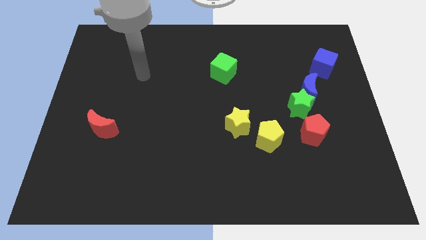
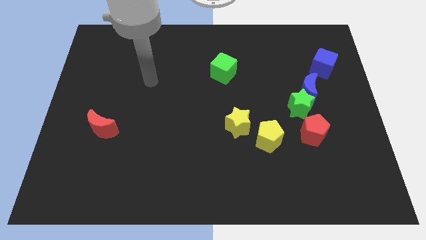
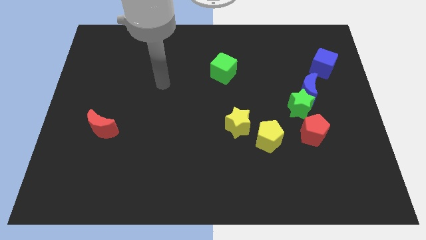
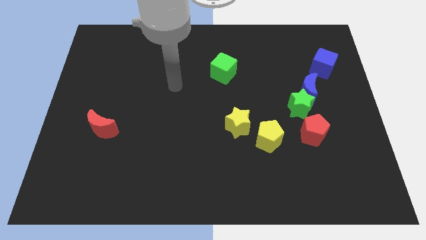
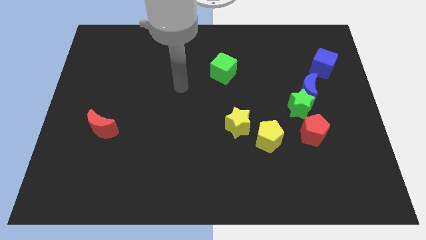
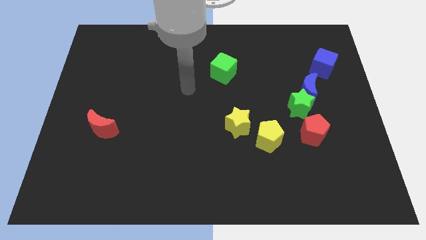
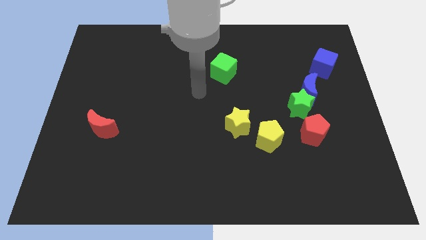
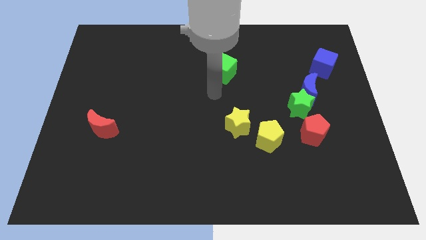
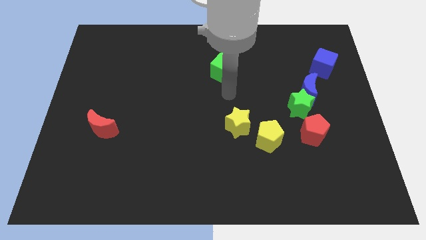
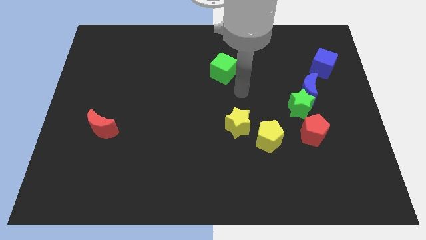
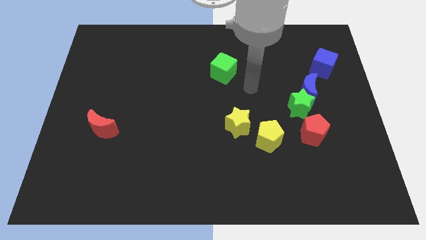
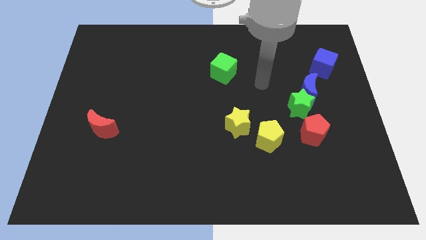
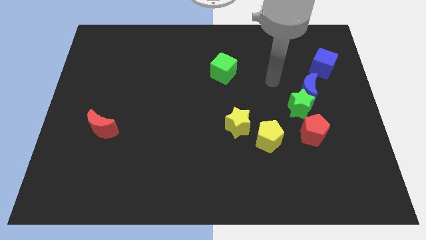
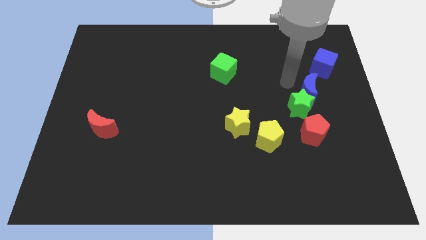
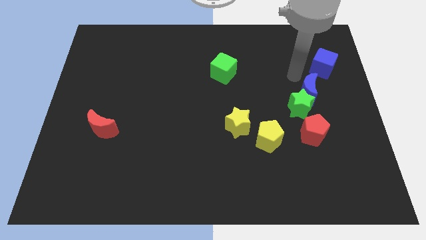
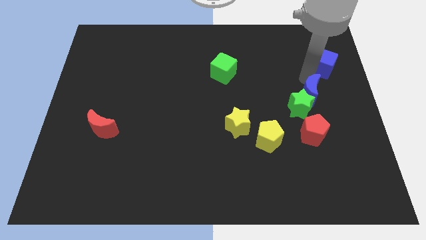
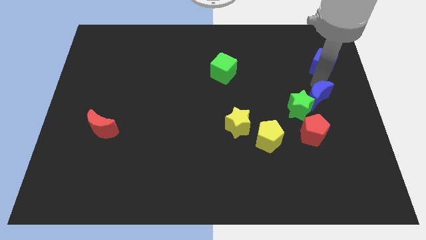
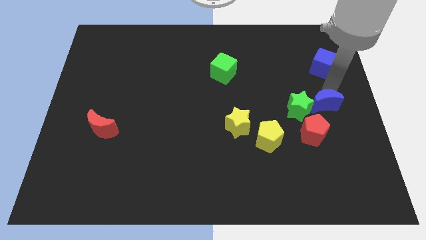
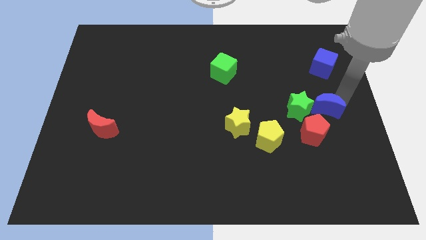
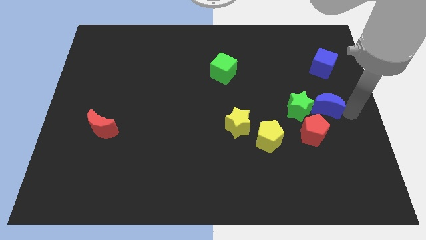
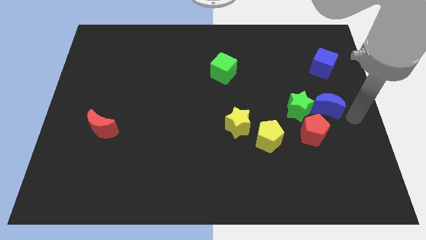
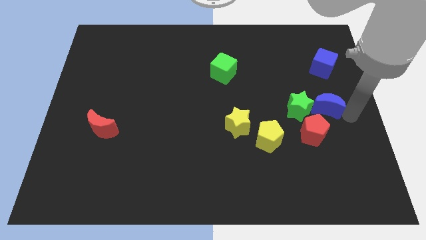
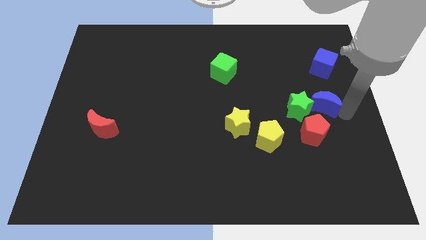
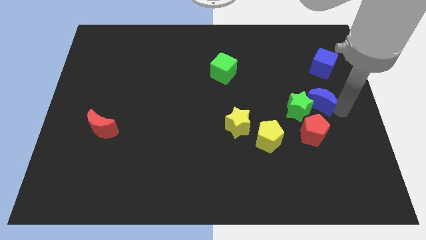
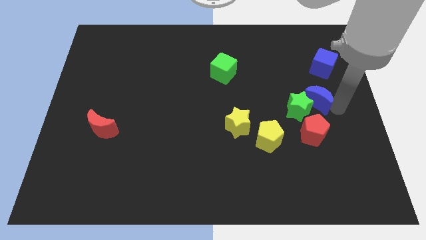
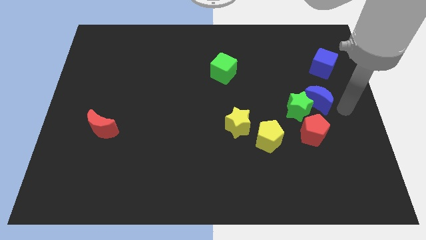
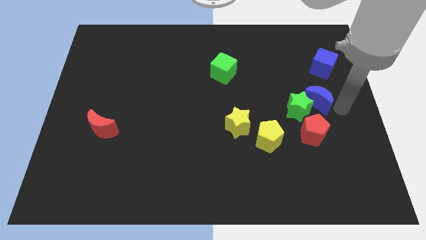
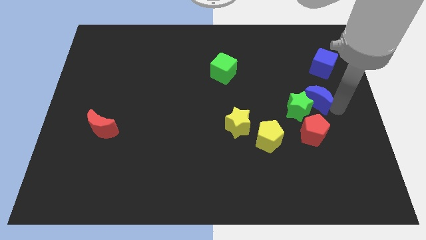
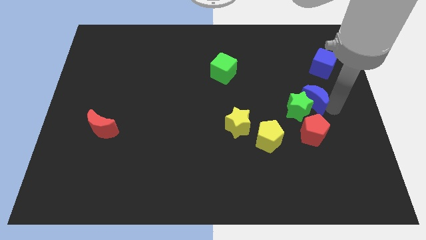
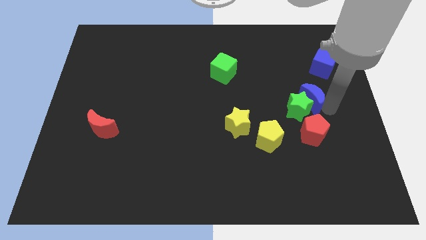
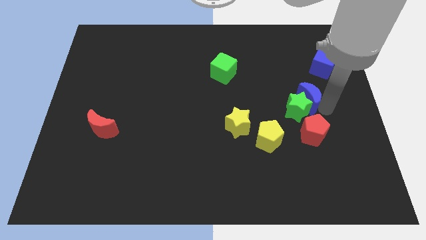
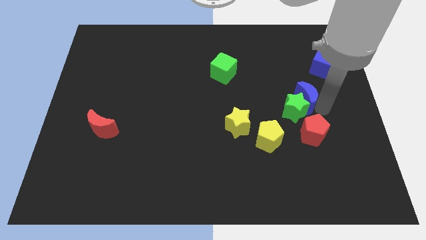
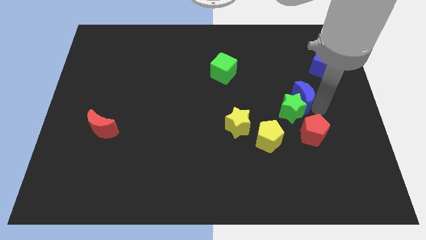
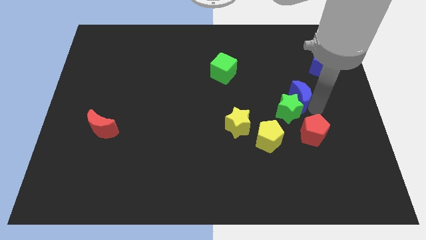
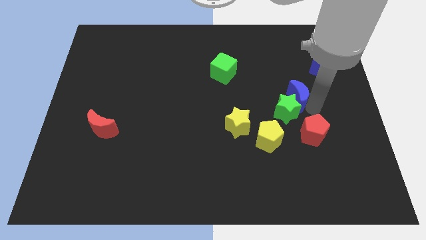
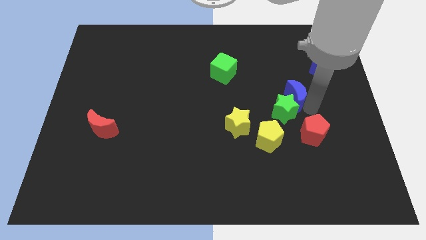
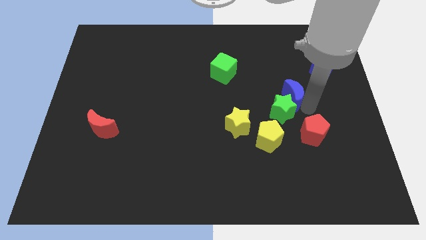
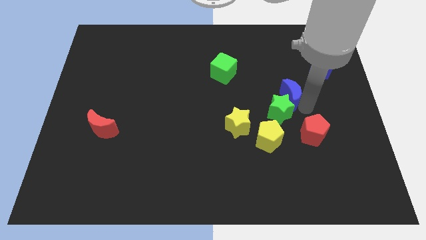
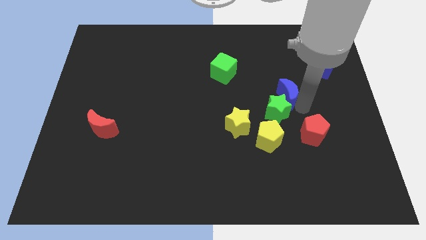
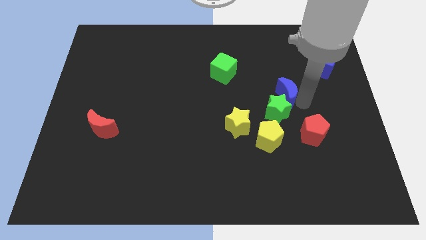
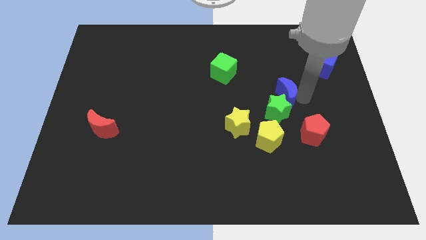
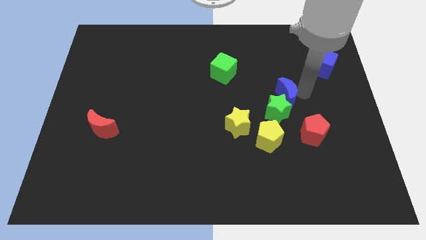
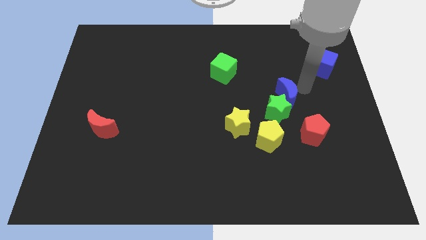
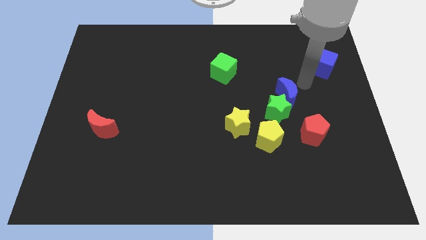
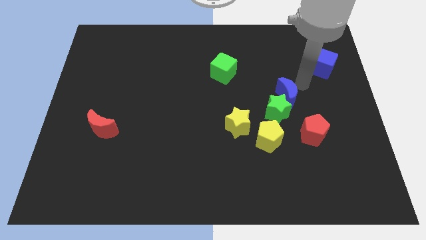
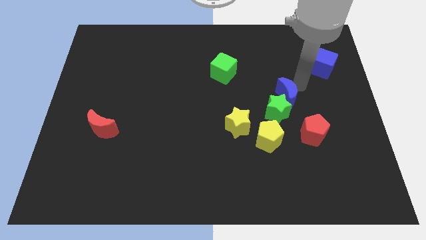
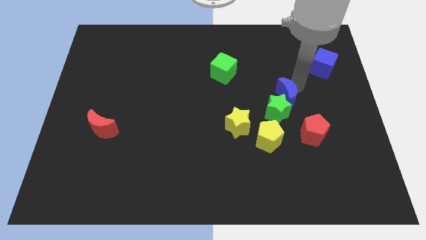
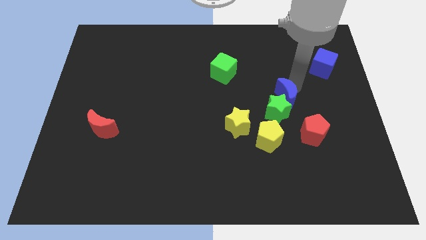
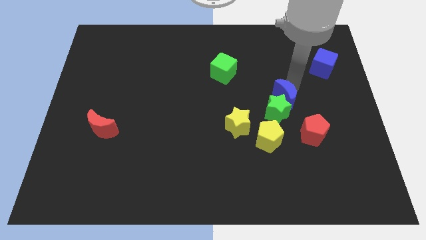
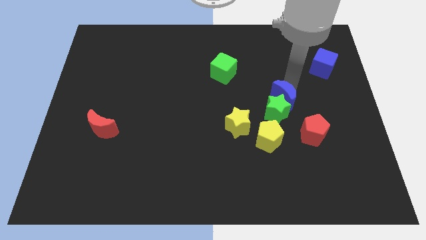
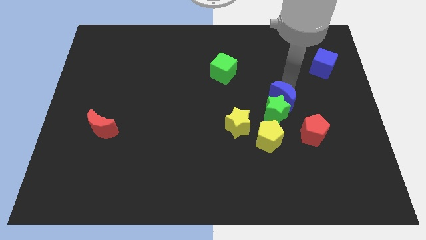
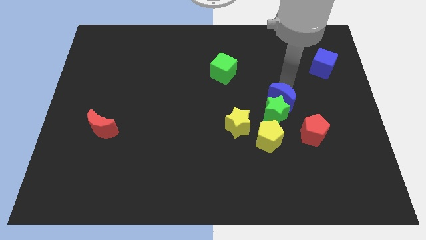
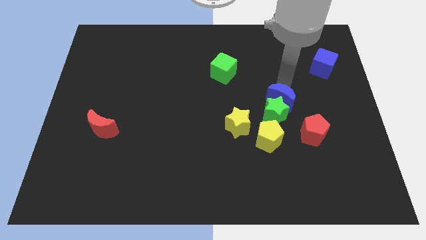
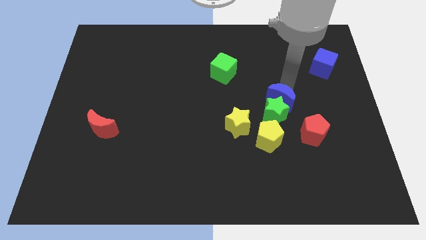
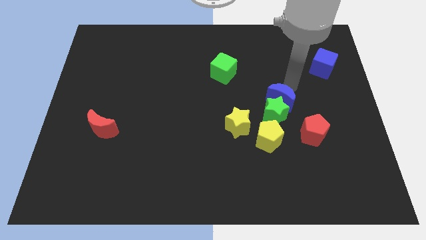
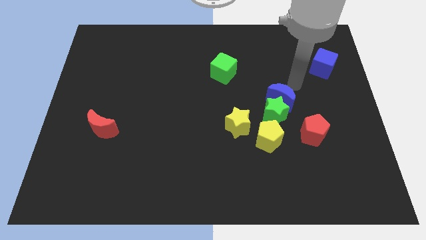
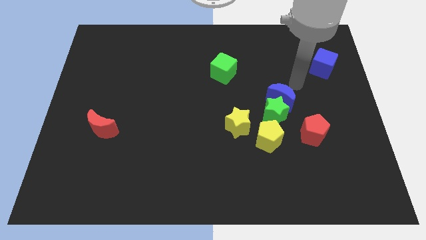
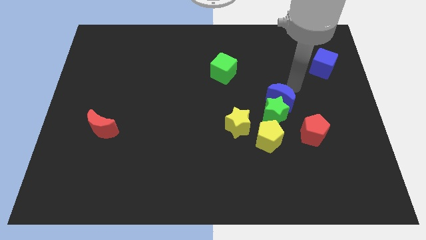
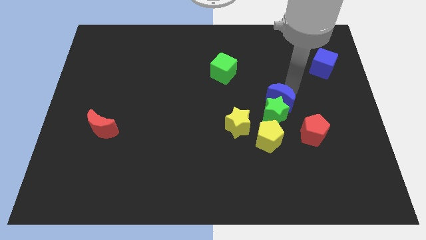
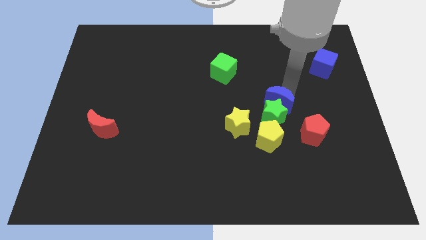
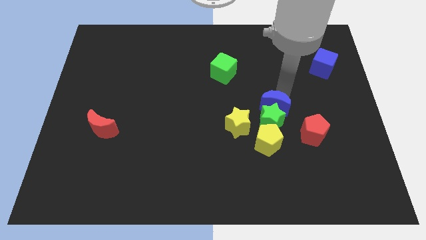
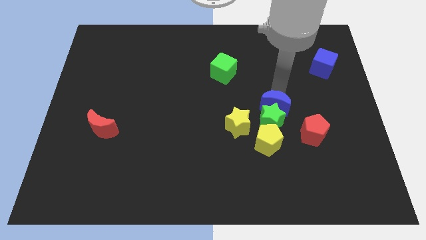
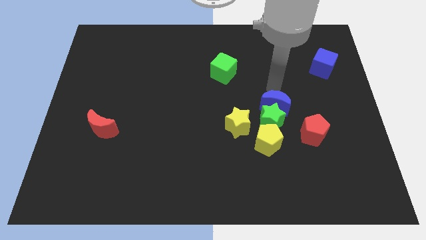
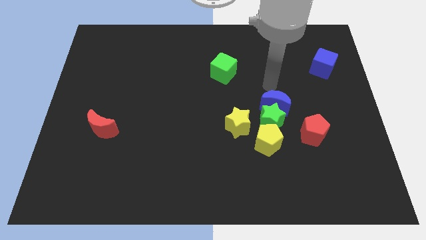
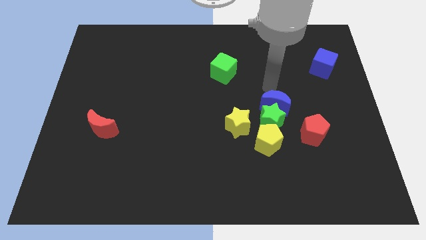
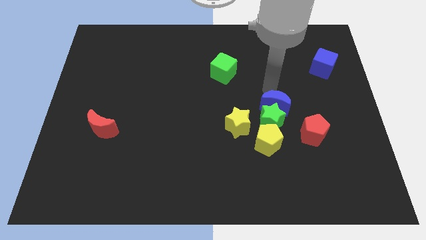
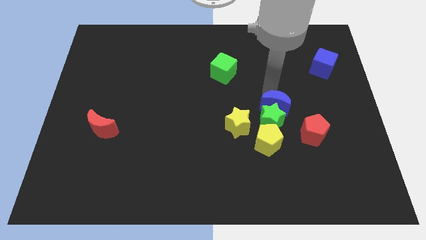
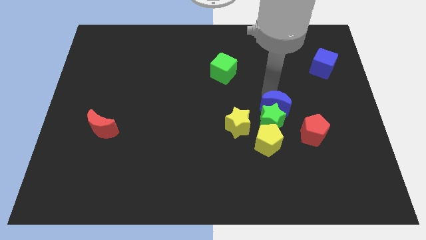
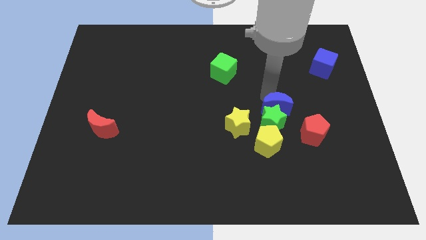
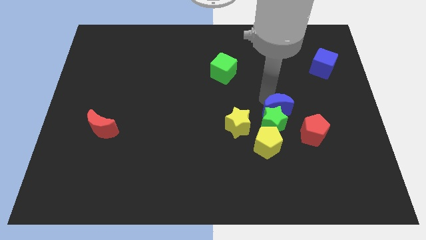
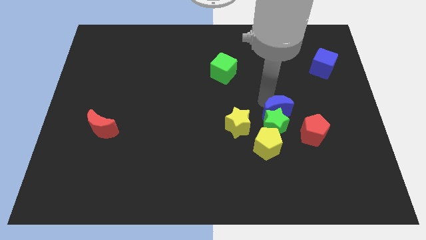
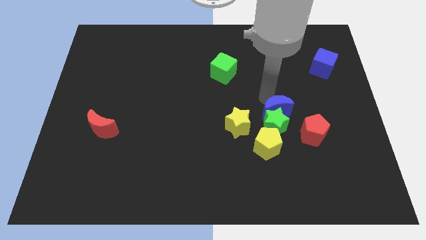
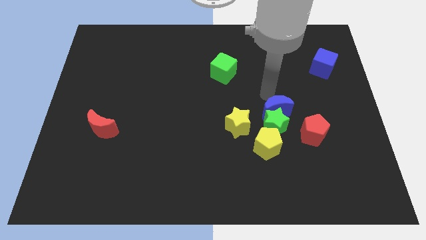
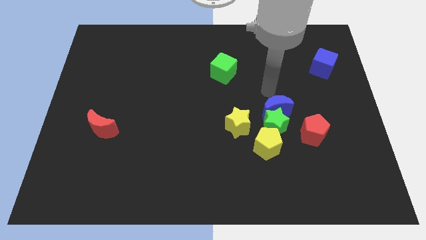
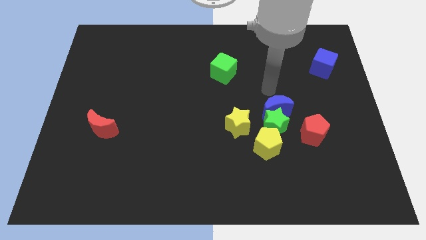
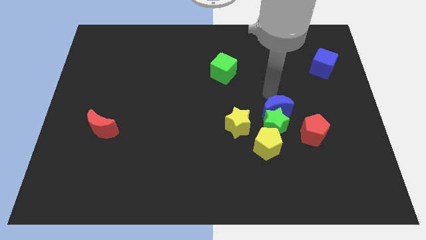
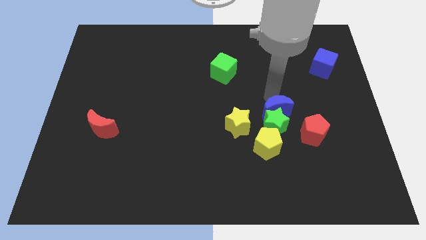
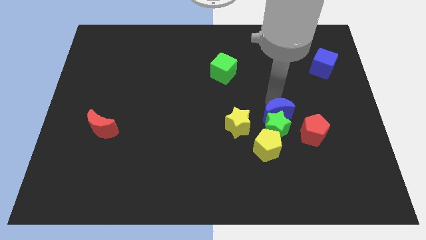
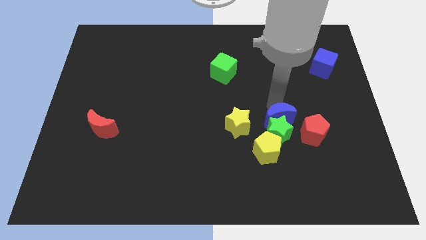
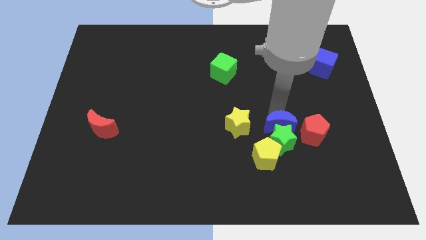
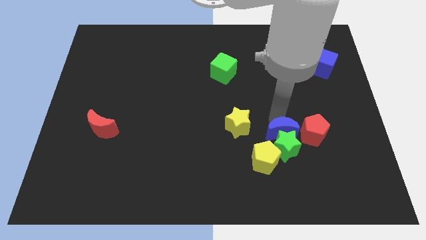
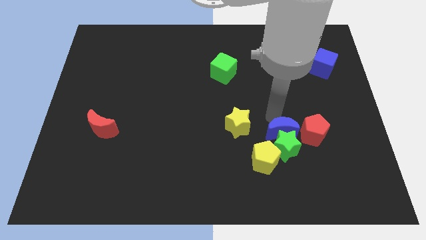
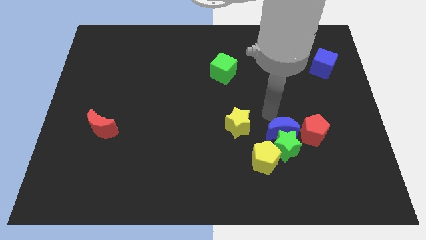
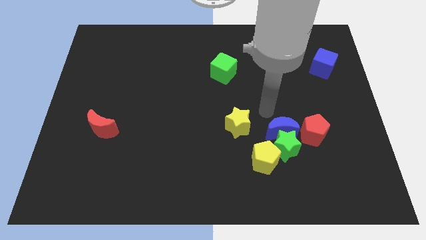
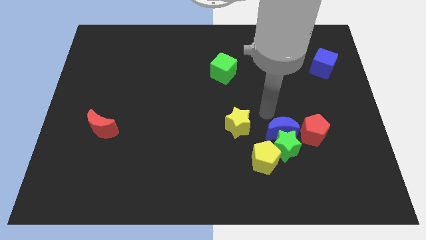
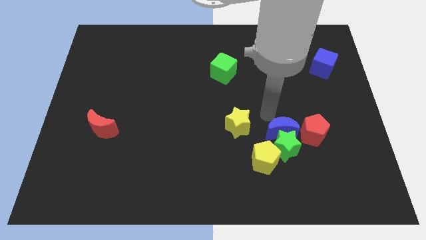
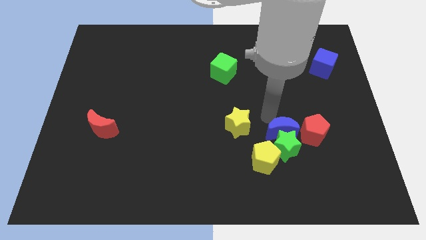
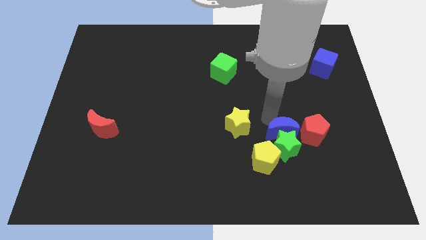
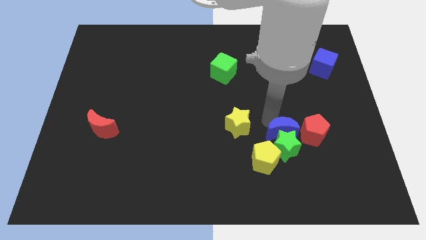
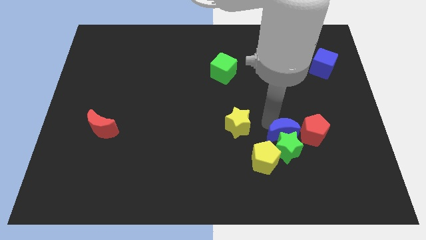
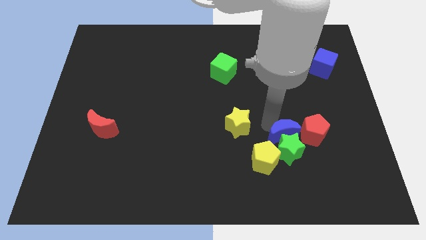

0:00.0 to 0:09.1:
push the blue moon diagonally down and to the right of the yellow star
